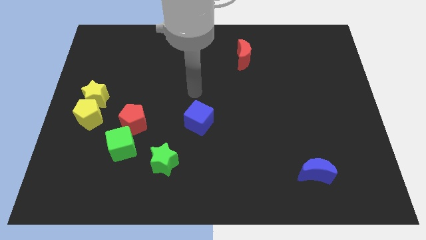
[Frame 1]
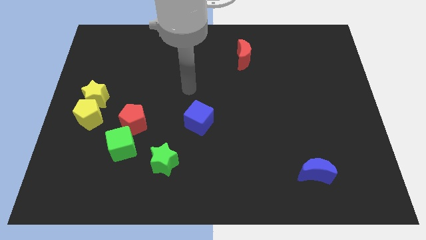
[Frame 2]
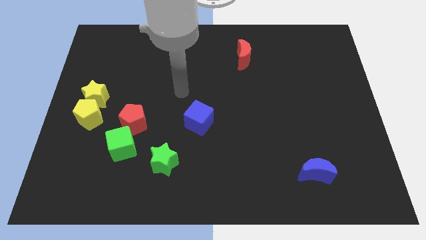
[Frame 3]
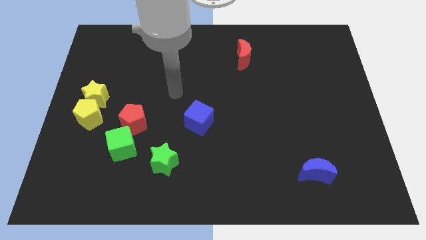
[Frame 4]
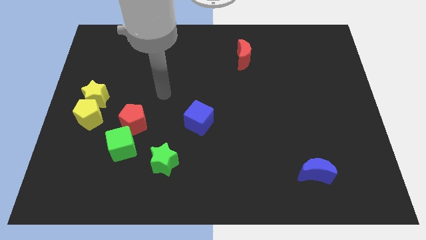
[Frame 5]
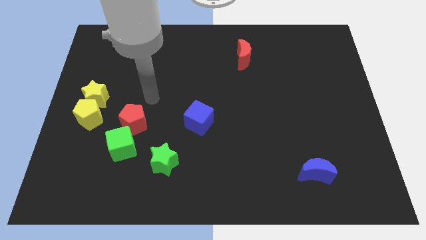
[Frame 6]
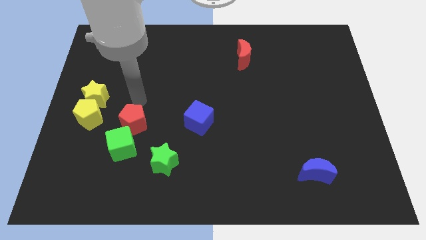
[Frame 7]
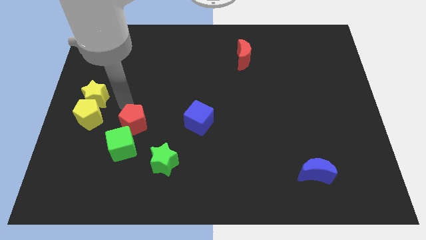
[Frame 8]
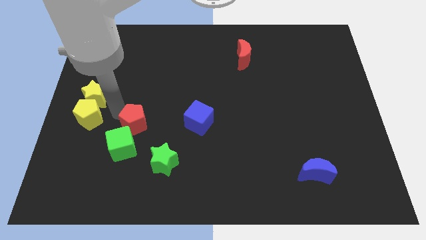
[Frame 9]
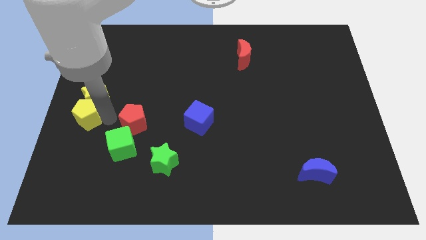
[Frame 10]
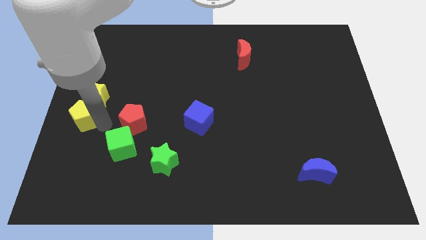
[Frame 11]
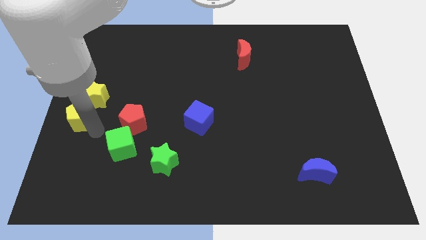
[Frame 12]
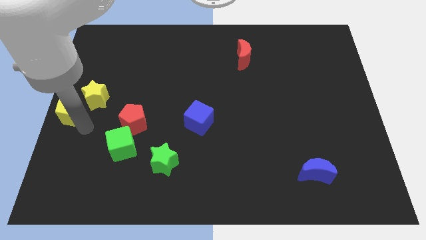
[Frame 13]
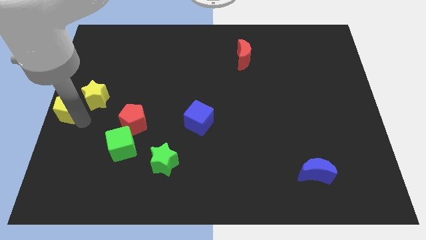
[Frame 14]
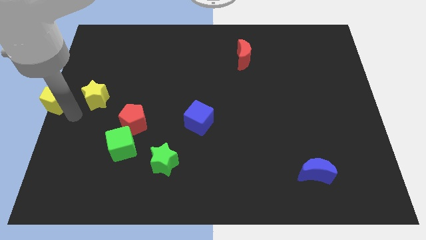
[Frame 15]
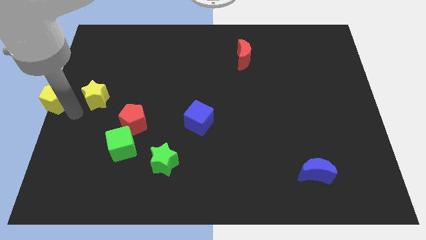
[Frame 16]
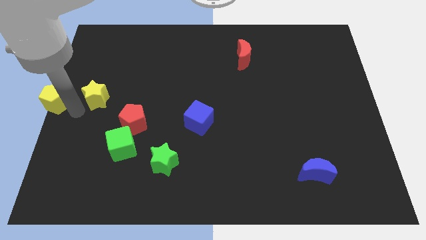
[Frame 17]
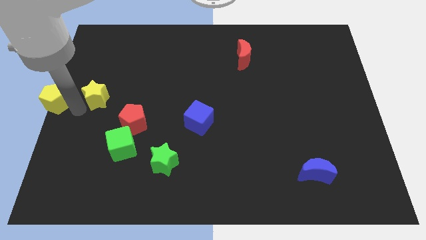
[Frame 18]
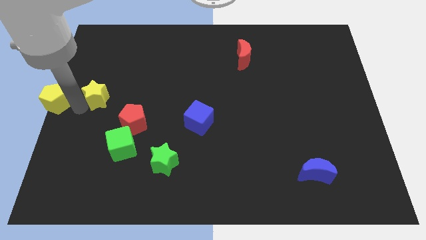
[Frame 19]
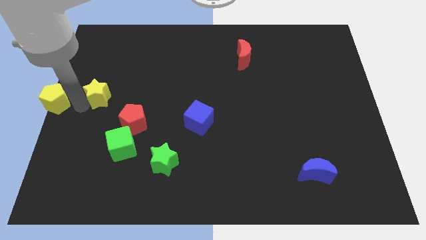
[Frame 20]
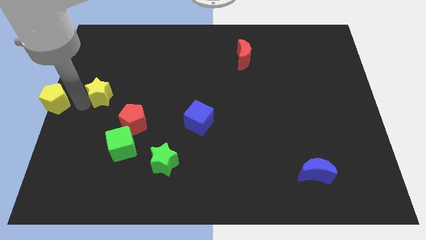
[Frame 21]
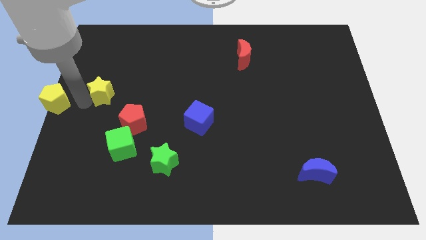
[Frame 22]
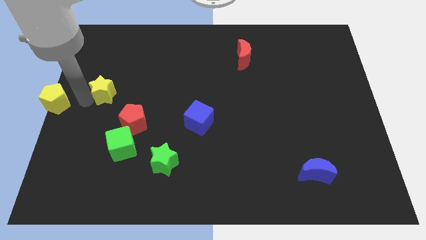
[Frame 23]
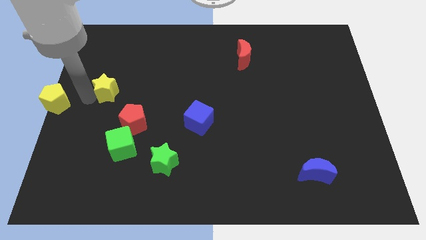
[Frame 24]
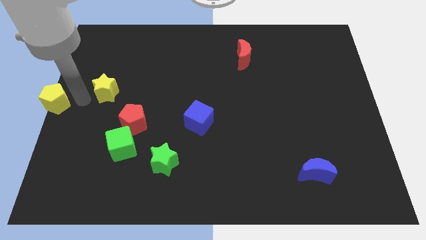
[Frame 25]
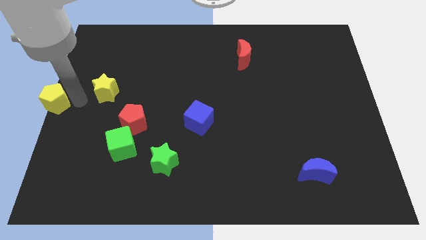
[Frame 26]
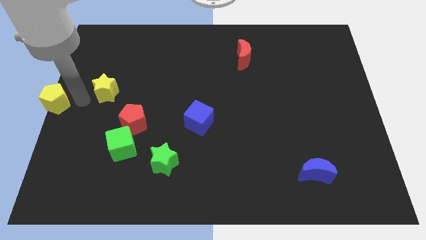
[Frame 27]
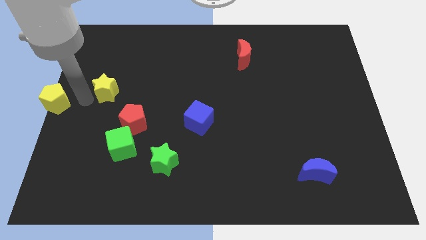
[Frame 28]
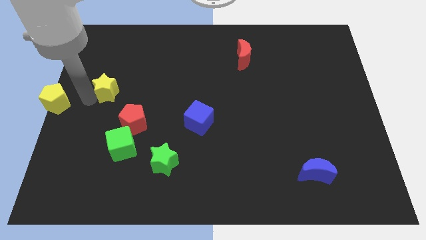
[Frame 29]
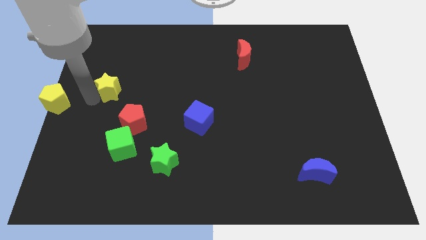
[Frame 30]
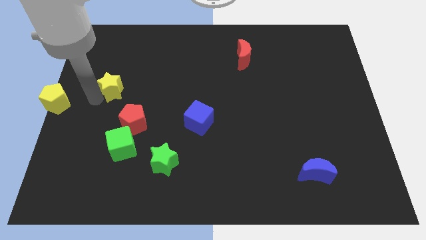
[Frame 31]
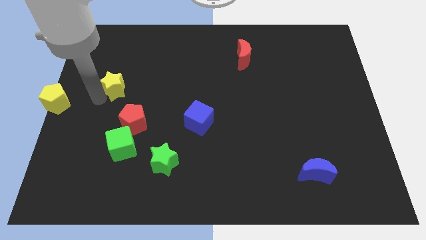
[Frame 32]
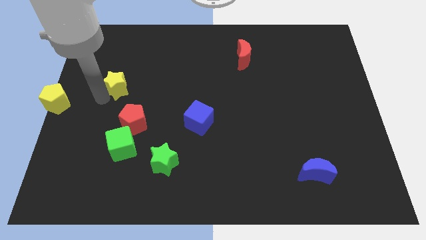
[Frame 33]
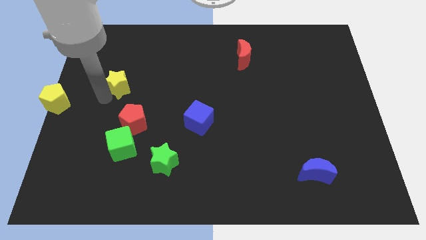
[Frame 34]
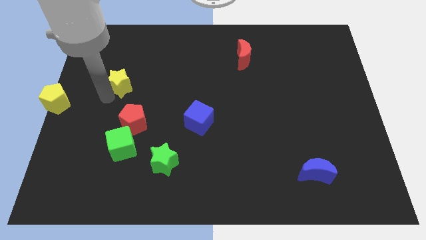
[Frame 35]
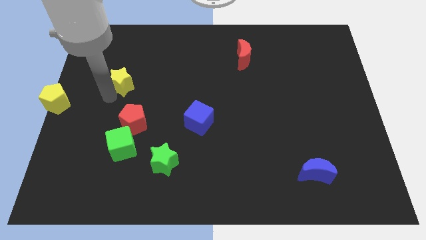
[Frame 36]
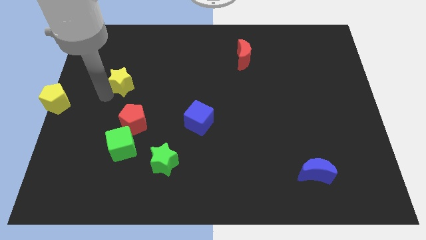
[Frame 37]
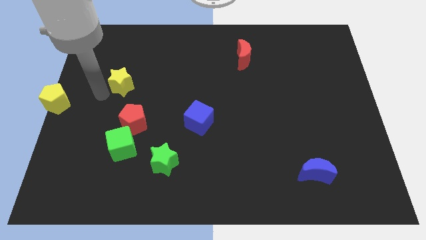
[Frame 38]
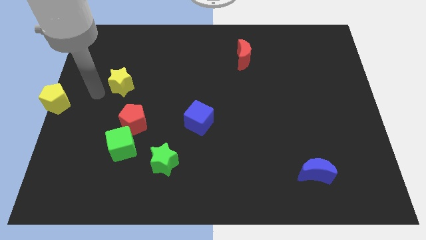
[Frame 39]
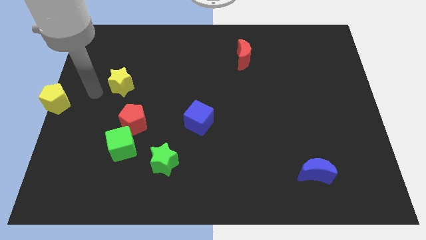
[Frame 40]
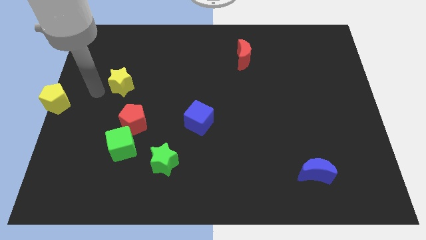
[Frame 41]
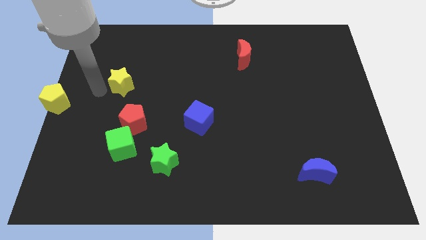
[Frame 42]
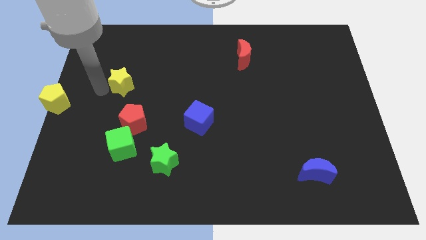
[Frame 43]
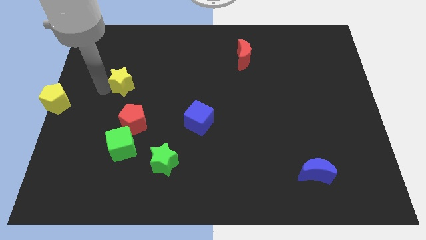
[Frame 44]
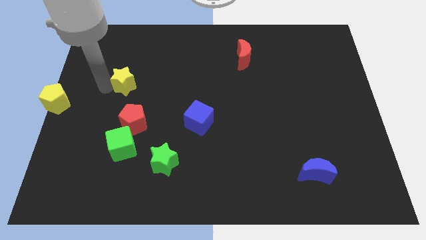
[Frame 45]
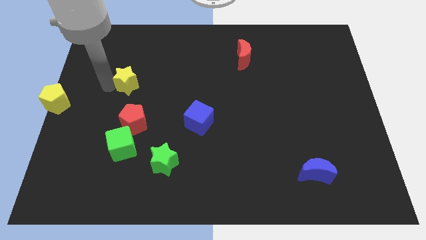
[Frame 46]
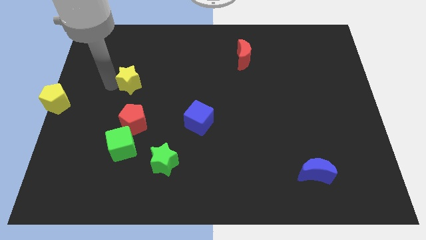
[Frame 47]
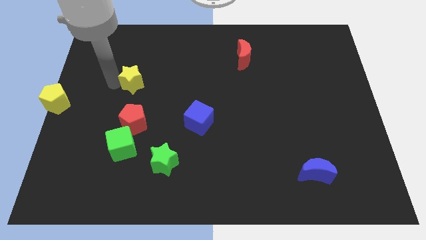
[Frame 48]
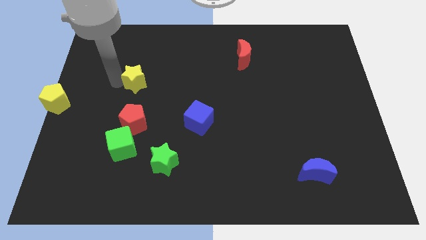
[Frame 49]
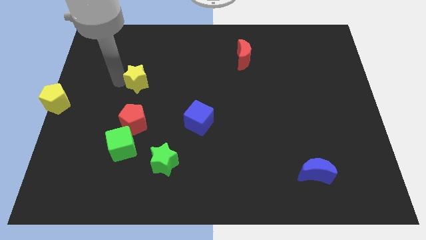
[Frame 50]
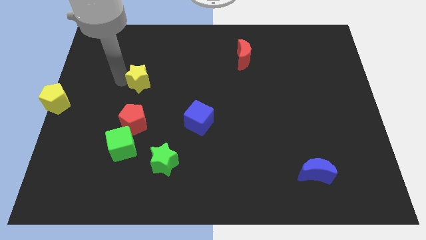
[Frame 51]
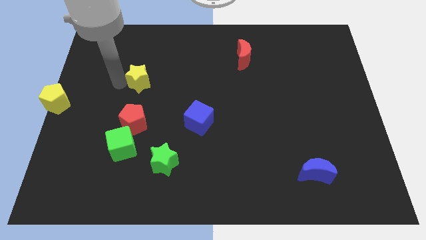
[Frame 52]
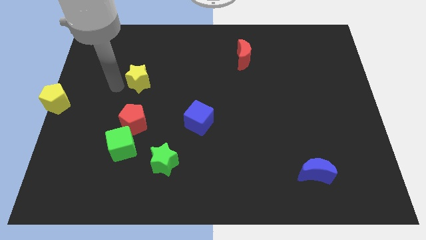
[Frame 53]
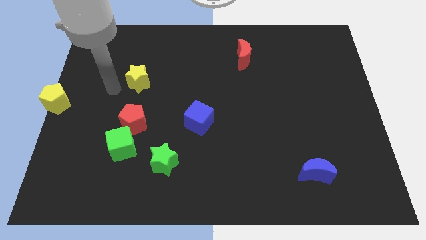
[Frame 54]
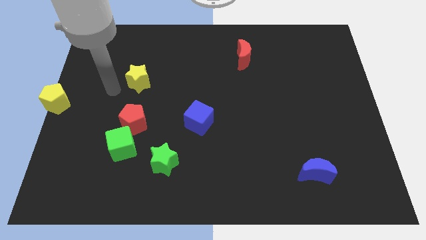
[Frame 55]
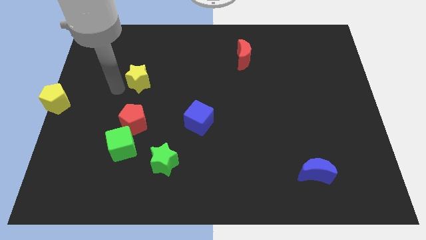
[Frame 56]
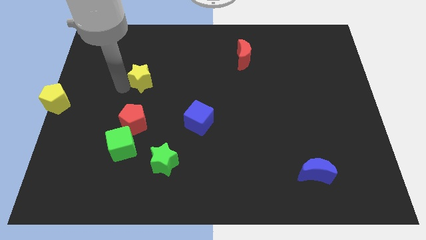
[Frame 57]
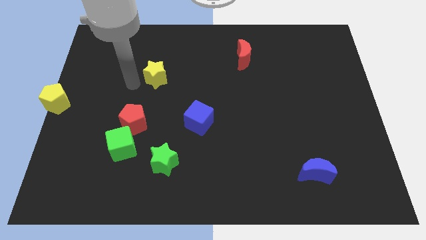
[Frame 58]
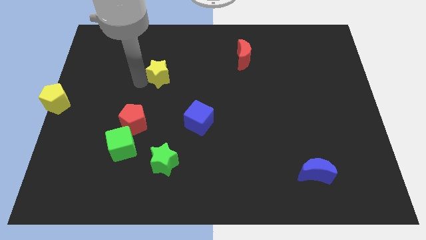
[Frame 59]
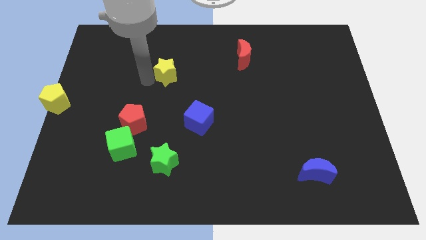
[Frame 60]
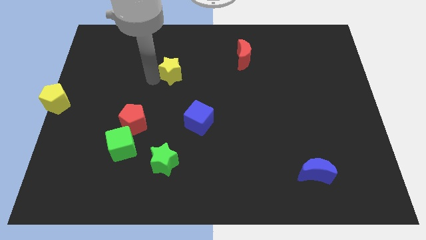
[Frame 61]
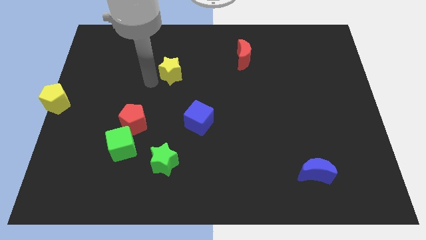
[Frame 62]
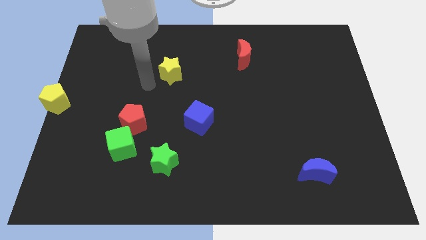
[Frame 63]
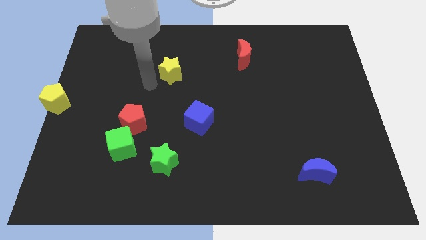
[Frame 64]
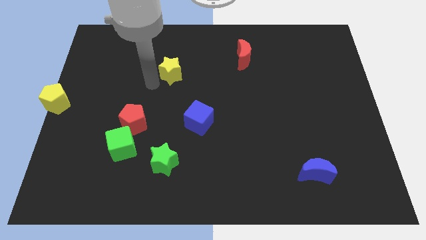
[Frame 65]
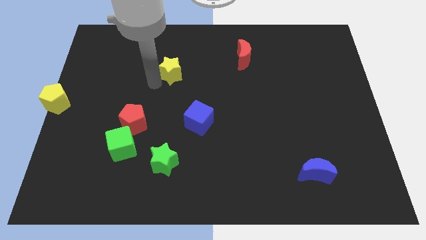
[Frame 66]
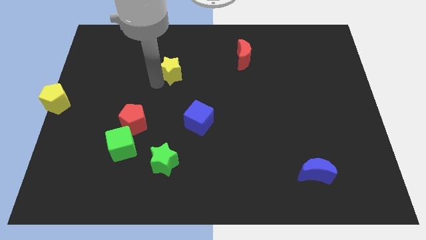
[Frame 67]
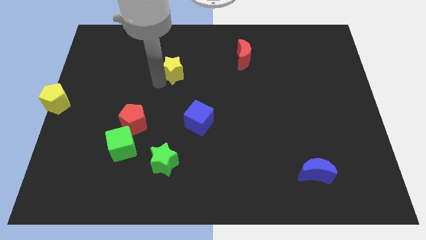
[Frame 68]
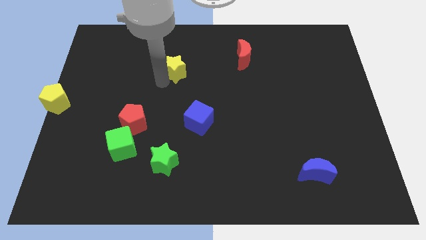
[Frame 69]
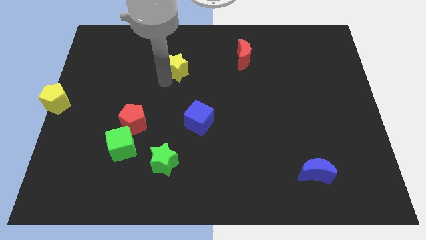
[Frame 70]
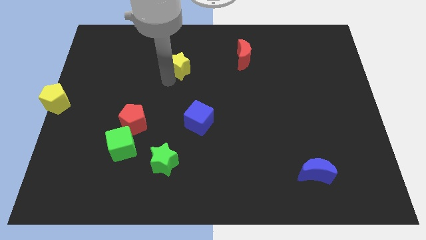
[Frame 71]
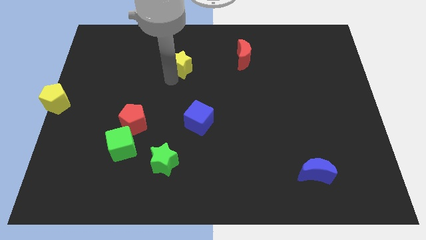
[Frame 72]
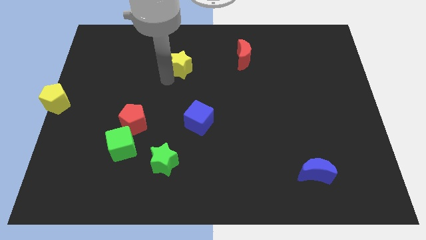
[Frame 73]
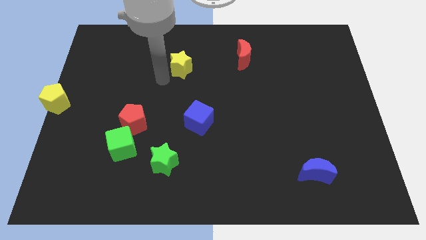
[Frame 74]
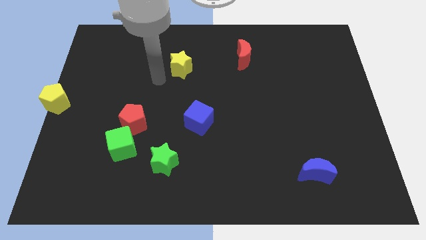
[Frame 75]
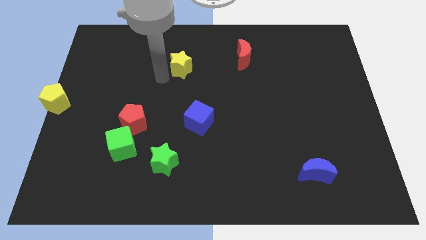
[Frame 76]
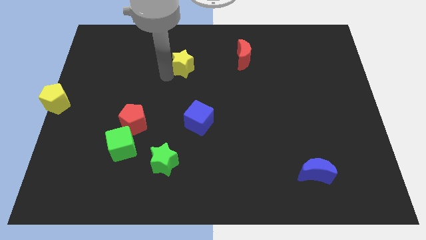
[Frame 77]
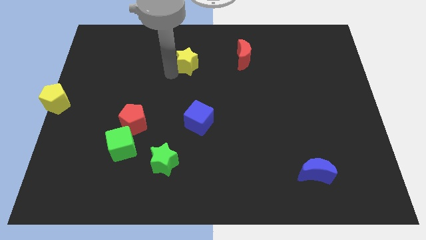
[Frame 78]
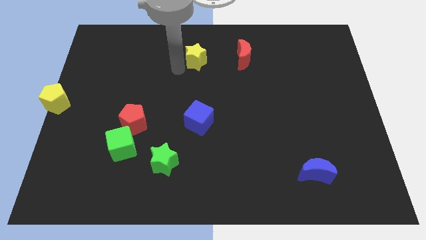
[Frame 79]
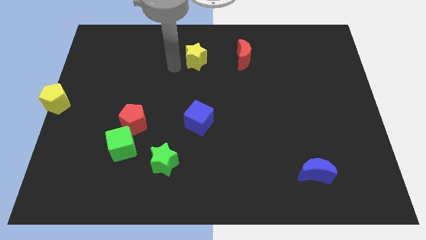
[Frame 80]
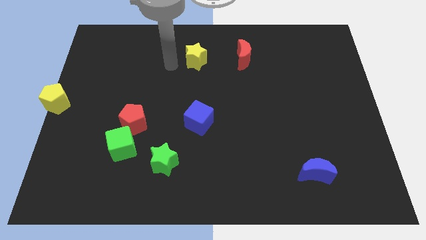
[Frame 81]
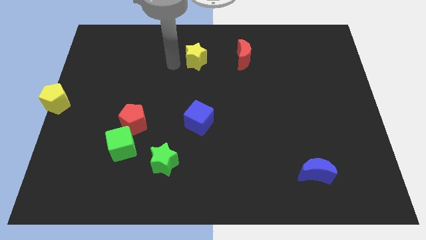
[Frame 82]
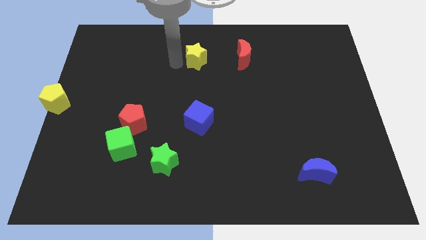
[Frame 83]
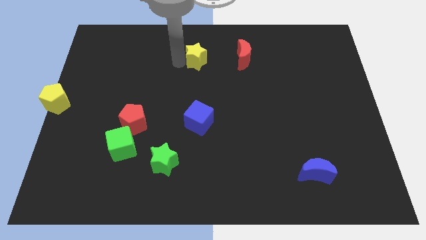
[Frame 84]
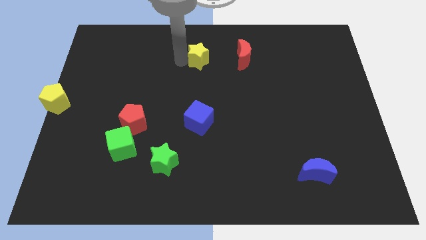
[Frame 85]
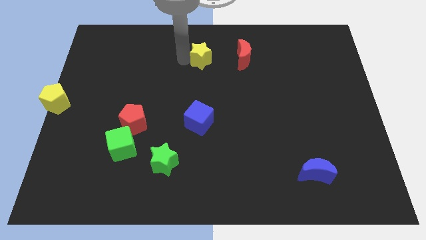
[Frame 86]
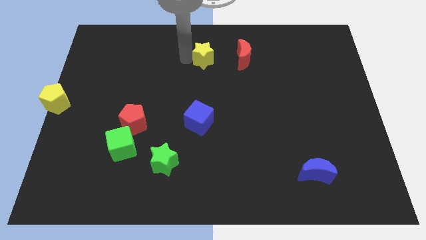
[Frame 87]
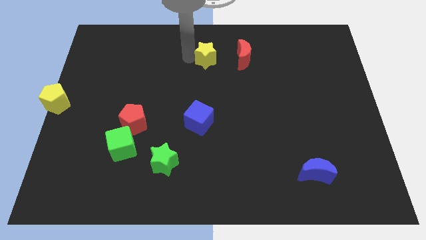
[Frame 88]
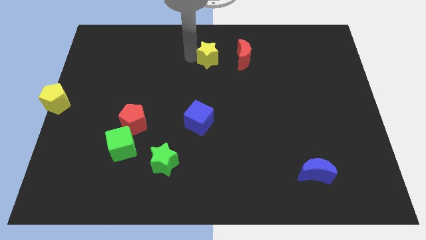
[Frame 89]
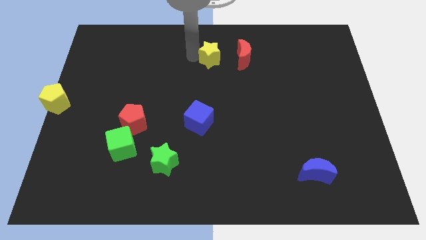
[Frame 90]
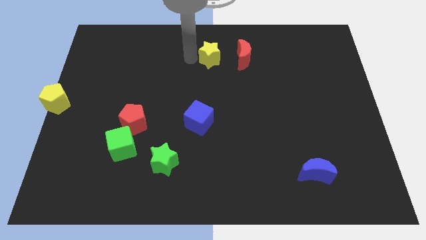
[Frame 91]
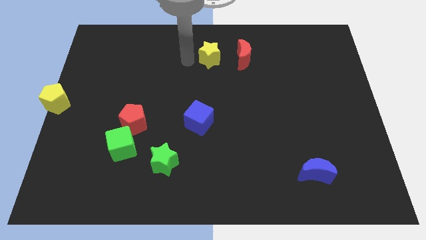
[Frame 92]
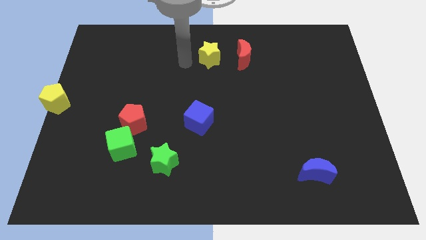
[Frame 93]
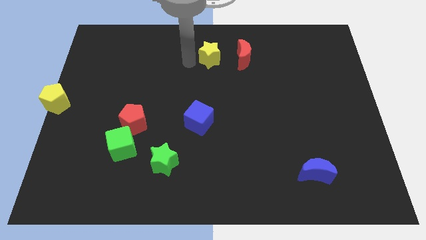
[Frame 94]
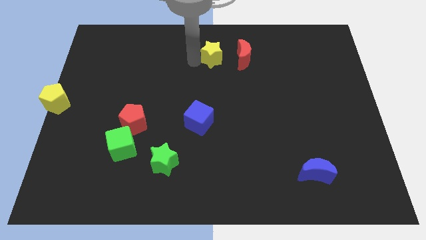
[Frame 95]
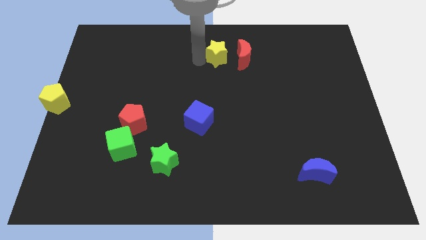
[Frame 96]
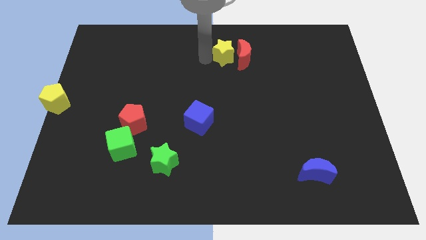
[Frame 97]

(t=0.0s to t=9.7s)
push the yellow star towards the red moon
